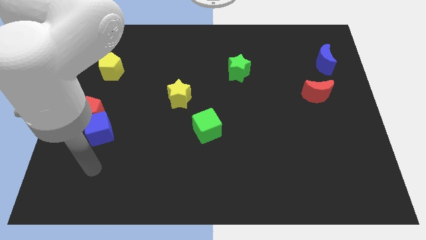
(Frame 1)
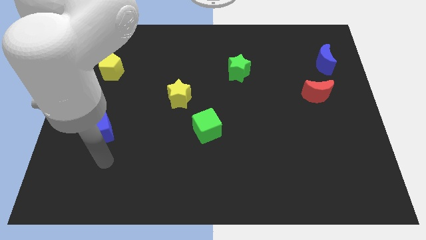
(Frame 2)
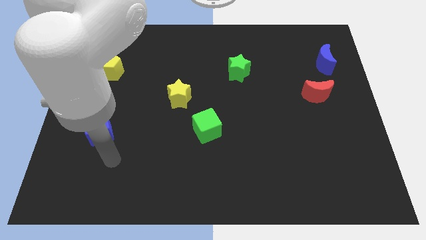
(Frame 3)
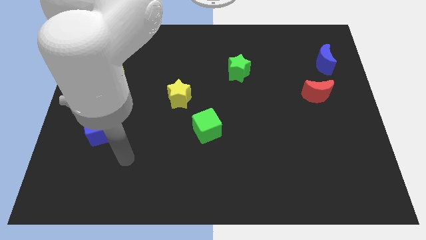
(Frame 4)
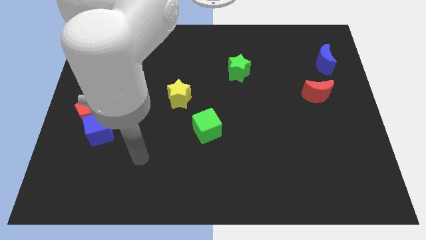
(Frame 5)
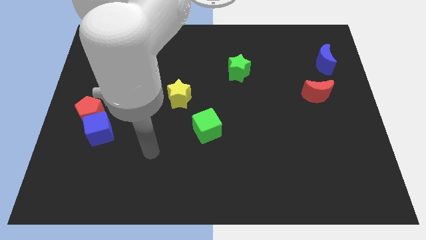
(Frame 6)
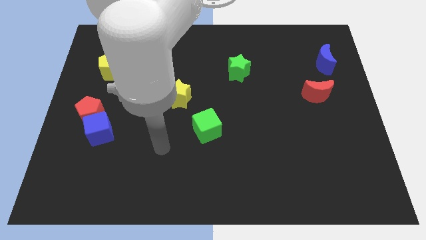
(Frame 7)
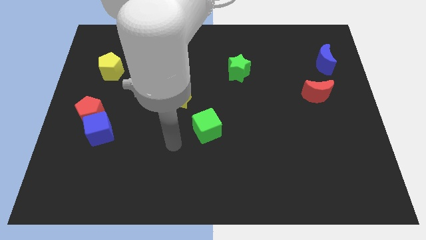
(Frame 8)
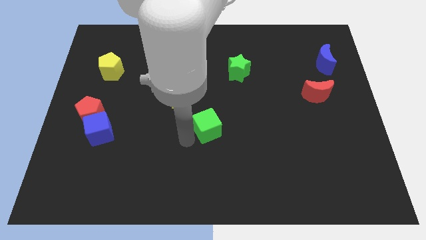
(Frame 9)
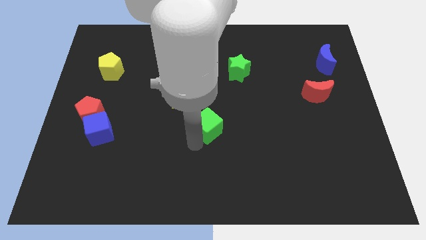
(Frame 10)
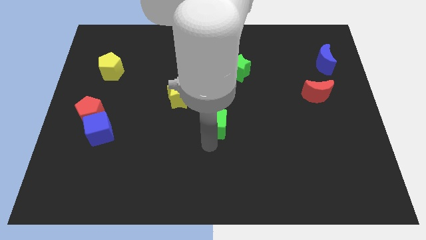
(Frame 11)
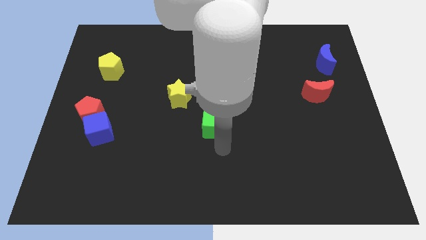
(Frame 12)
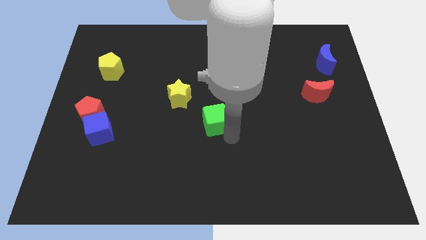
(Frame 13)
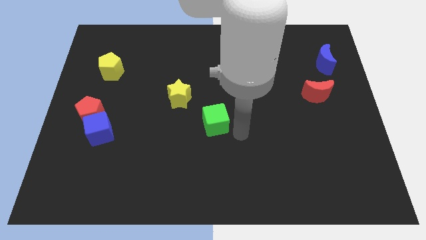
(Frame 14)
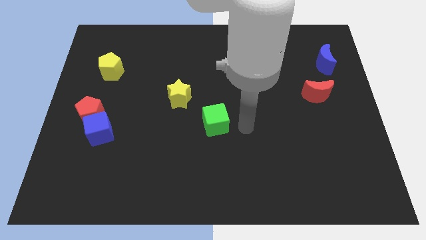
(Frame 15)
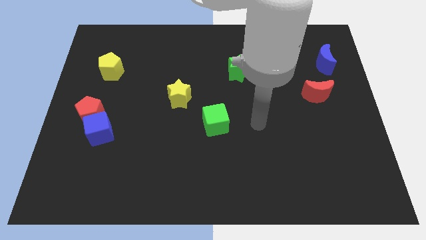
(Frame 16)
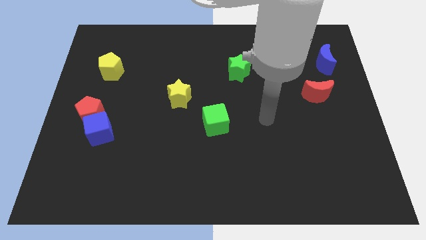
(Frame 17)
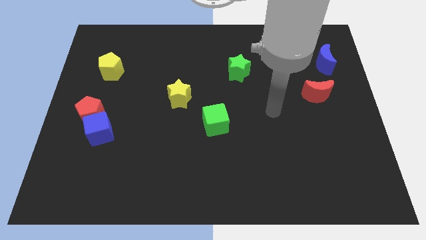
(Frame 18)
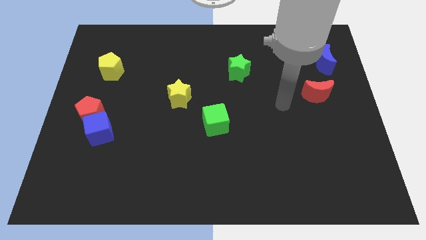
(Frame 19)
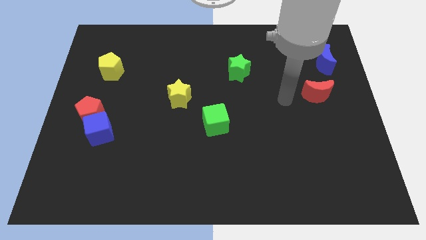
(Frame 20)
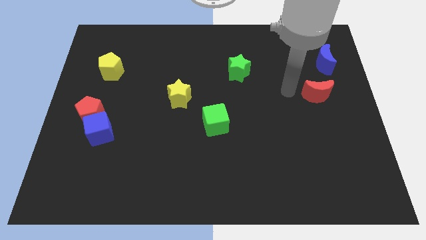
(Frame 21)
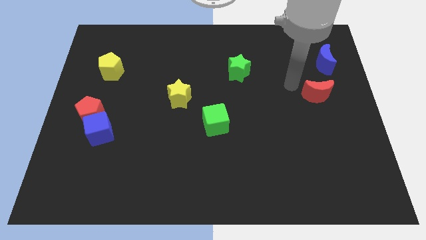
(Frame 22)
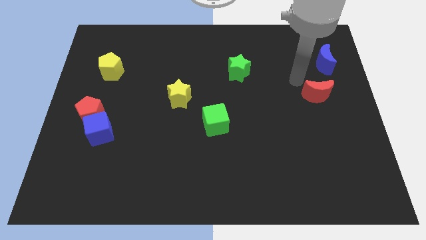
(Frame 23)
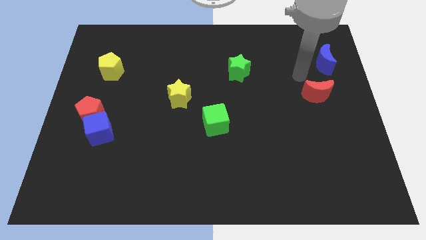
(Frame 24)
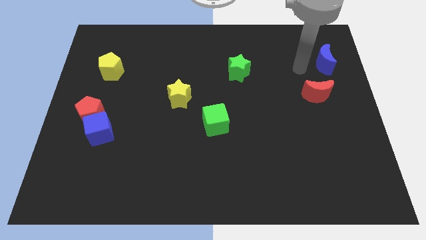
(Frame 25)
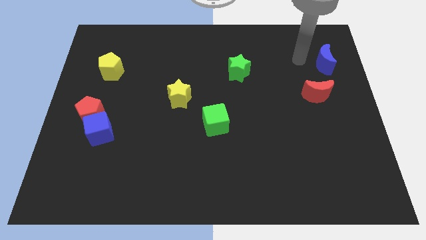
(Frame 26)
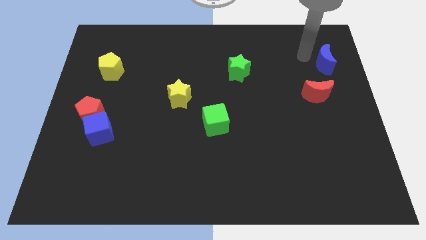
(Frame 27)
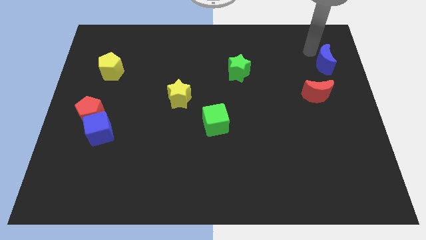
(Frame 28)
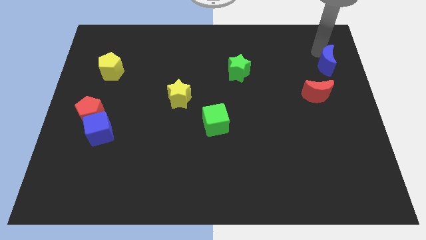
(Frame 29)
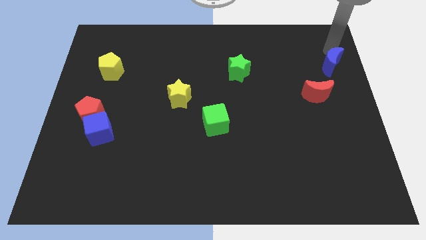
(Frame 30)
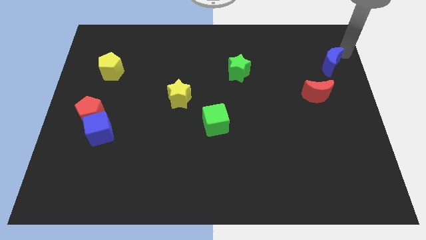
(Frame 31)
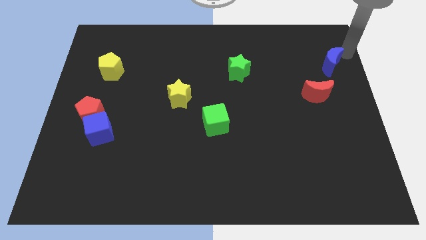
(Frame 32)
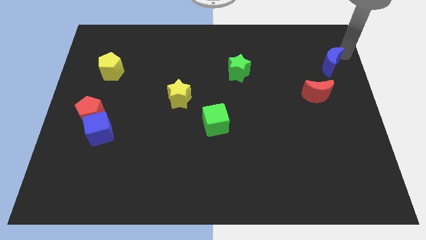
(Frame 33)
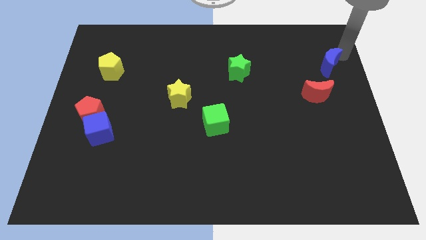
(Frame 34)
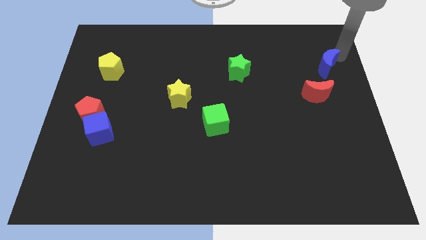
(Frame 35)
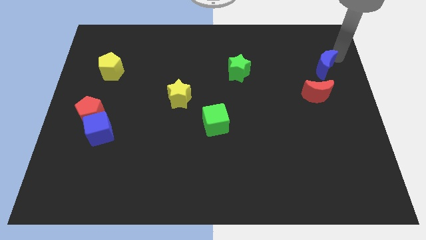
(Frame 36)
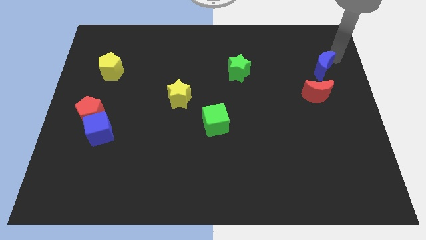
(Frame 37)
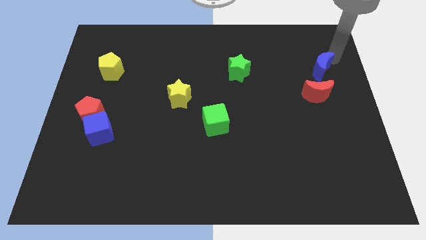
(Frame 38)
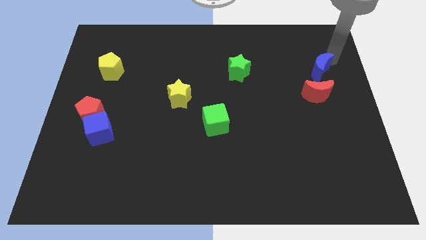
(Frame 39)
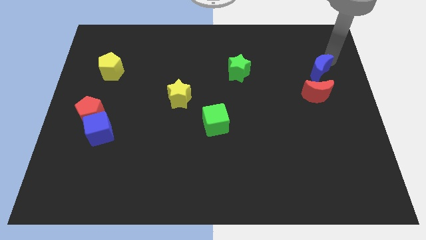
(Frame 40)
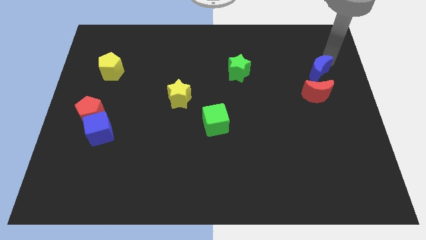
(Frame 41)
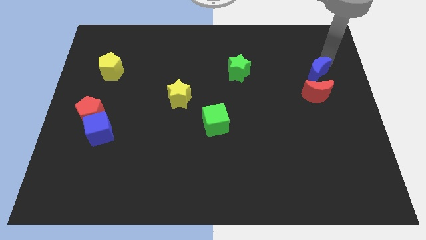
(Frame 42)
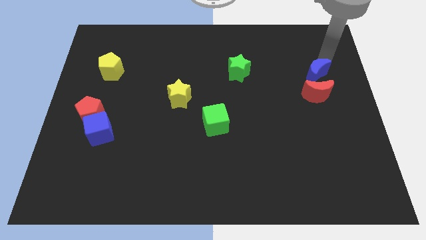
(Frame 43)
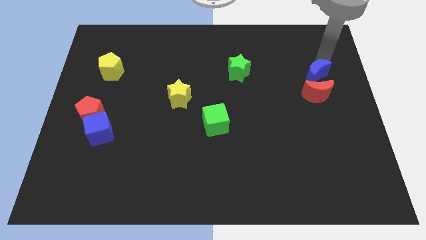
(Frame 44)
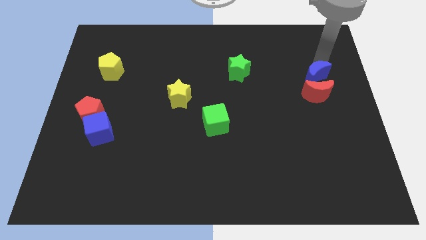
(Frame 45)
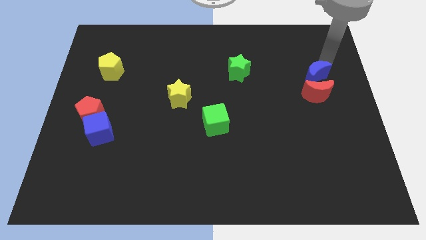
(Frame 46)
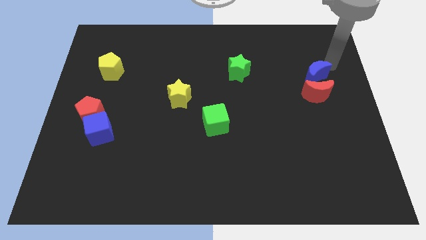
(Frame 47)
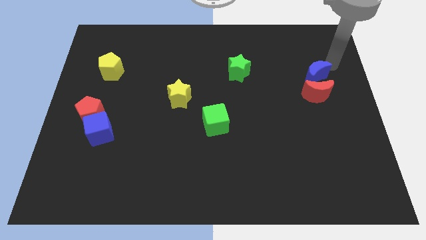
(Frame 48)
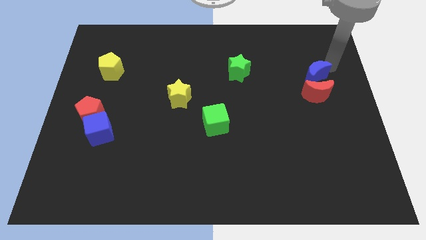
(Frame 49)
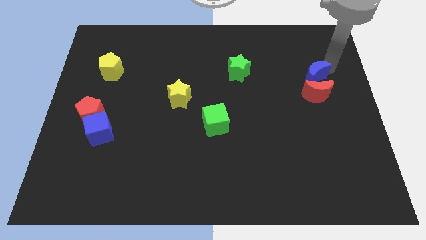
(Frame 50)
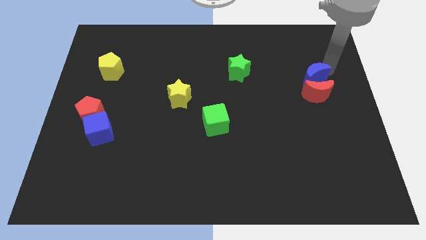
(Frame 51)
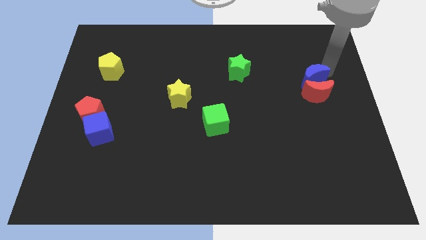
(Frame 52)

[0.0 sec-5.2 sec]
slightly move the blue moon downwards and then left

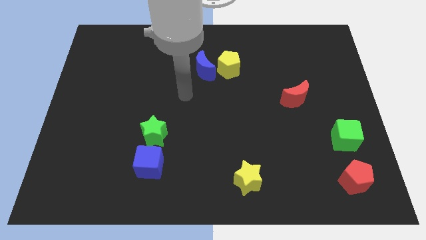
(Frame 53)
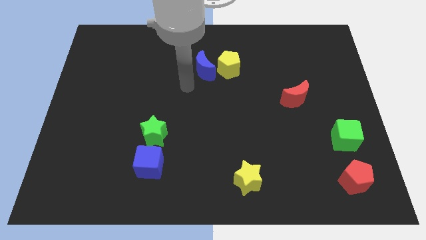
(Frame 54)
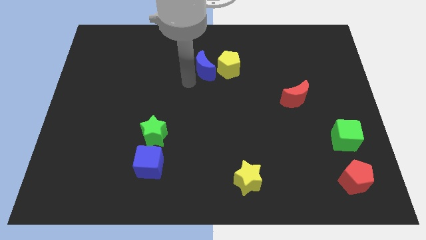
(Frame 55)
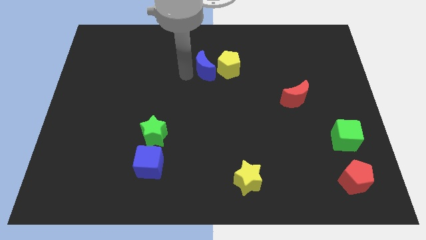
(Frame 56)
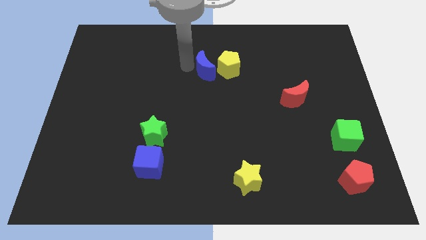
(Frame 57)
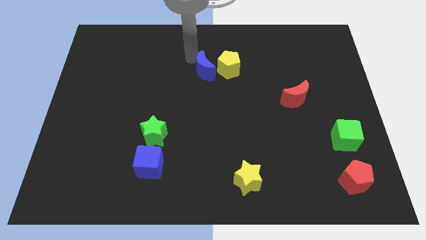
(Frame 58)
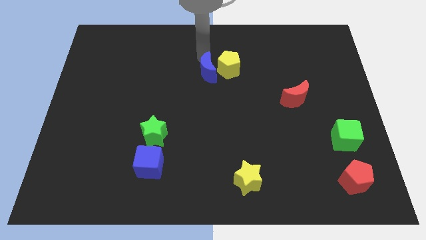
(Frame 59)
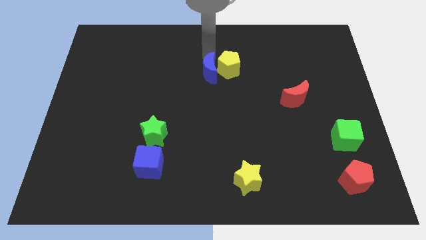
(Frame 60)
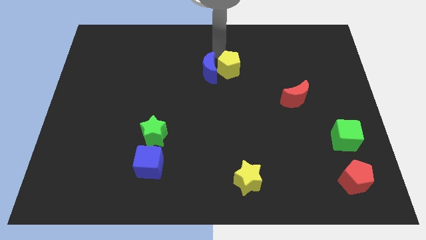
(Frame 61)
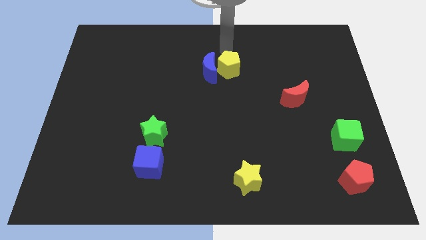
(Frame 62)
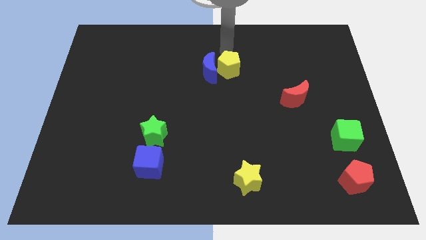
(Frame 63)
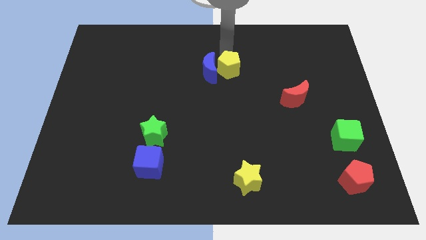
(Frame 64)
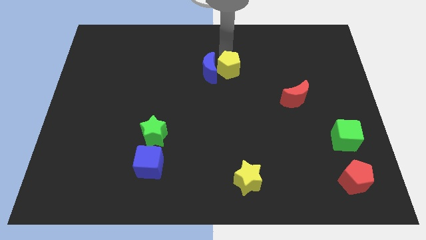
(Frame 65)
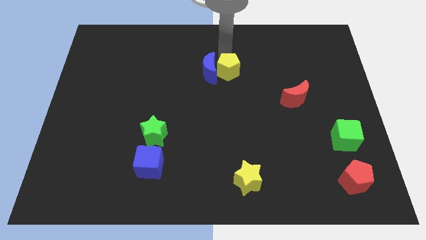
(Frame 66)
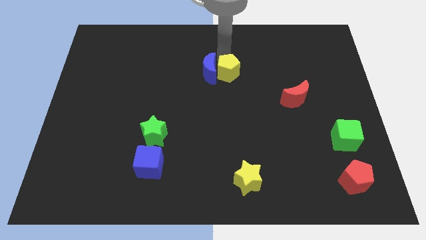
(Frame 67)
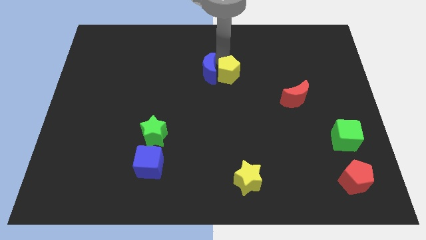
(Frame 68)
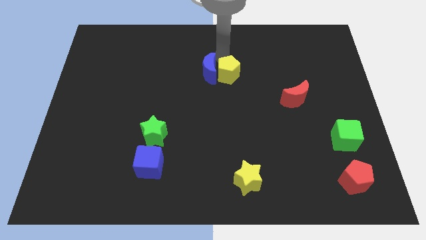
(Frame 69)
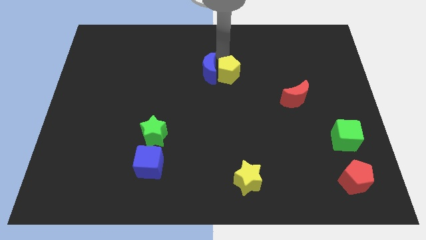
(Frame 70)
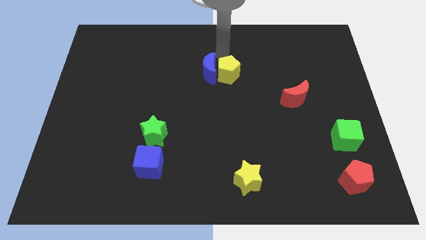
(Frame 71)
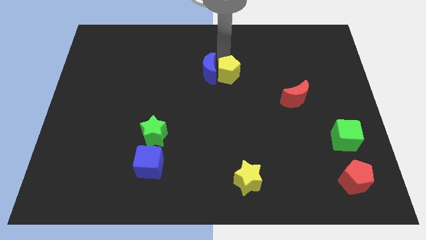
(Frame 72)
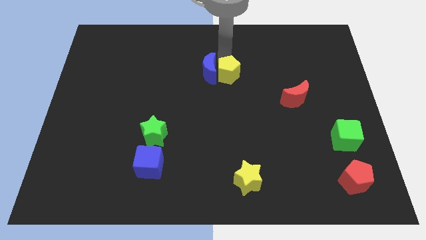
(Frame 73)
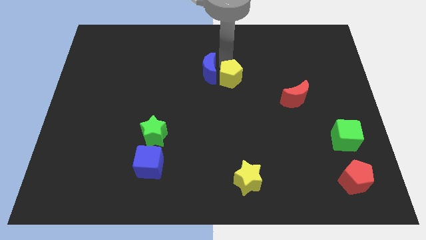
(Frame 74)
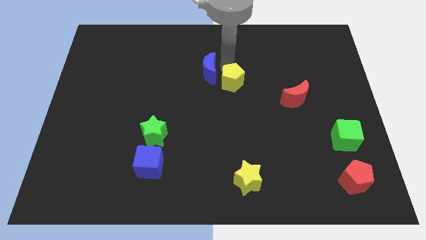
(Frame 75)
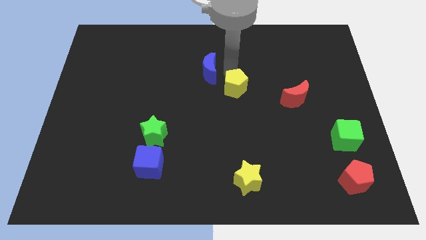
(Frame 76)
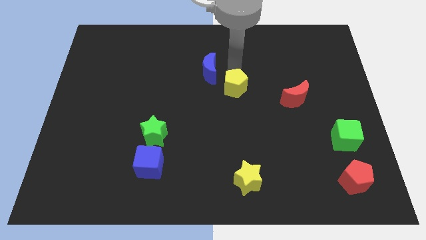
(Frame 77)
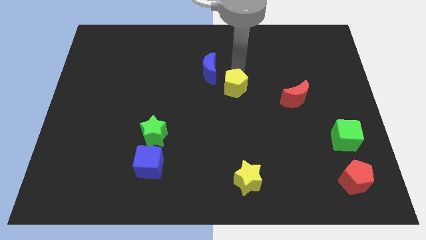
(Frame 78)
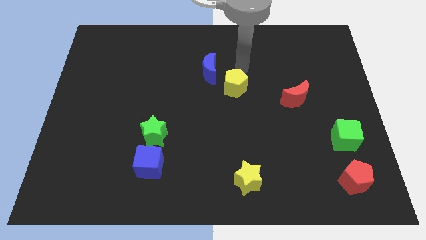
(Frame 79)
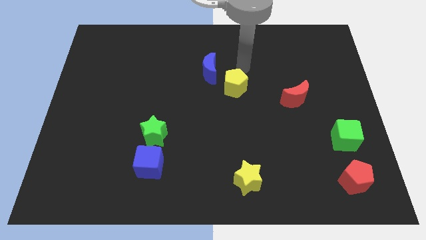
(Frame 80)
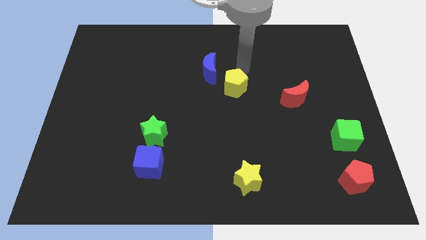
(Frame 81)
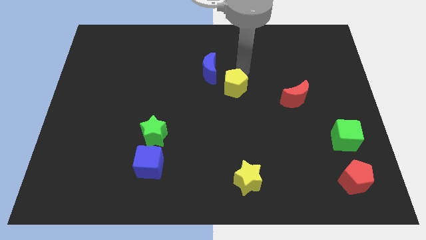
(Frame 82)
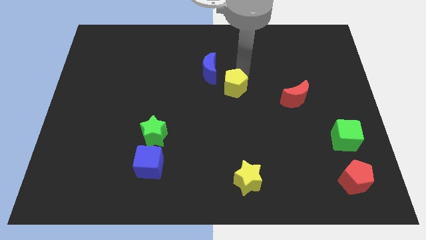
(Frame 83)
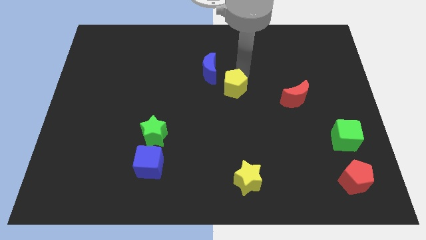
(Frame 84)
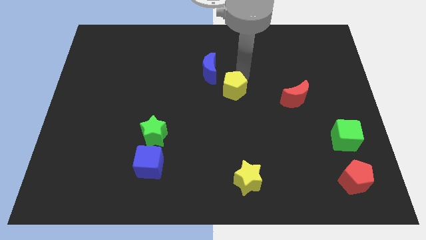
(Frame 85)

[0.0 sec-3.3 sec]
push the yellow pentagon downwards a bit
